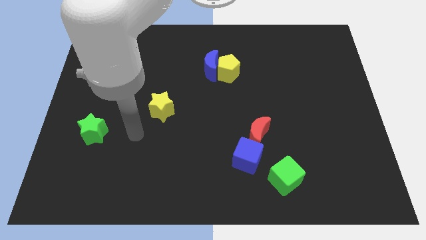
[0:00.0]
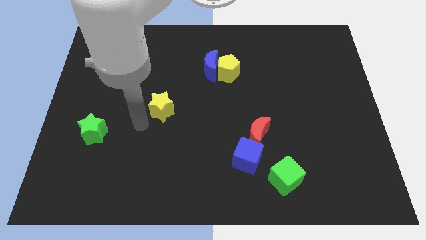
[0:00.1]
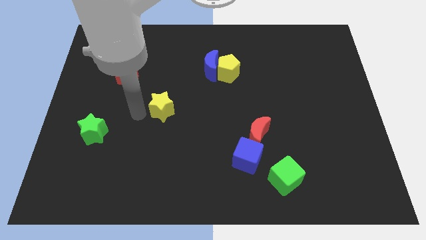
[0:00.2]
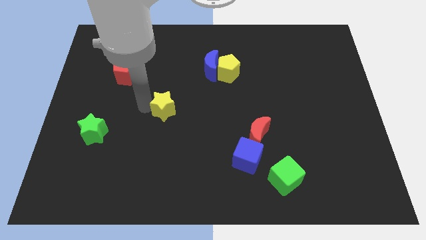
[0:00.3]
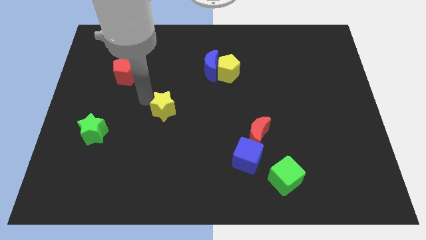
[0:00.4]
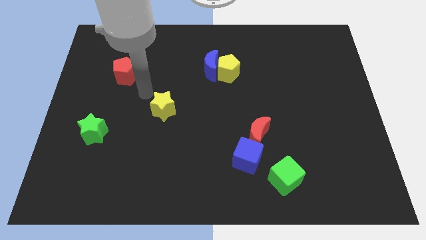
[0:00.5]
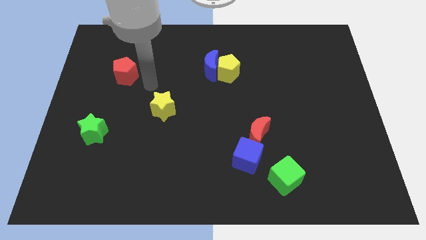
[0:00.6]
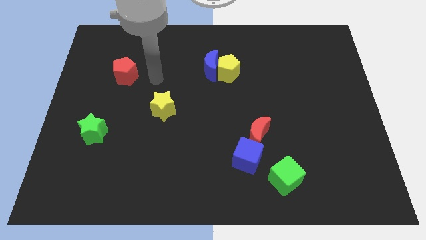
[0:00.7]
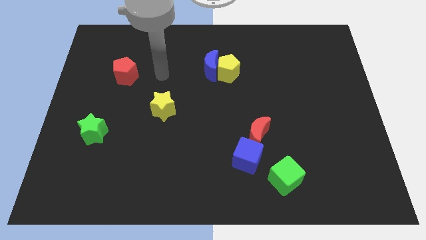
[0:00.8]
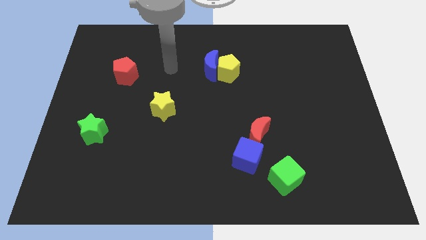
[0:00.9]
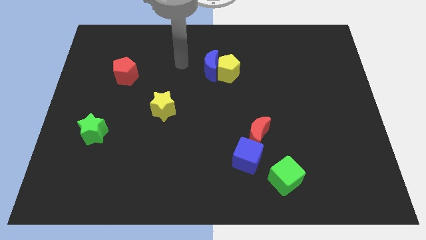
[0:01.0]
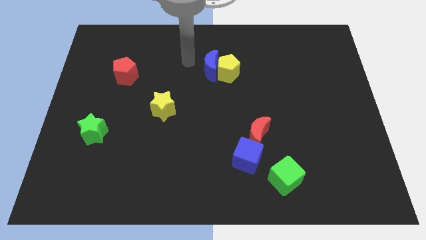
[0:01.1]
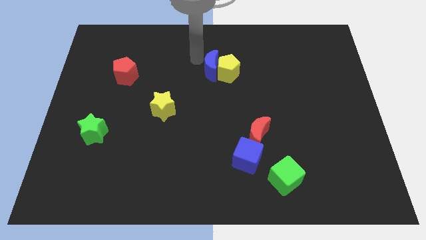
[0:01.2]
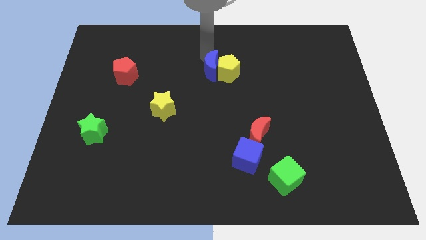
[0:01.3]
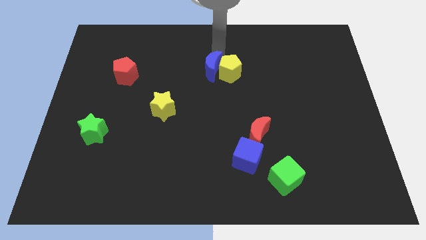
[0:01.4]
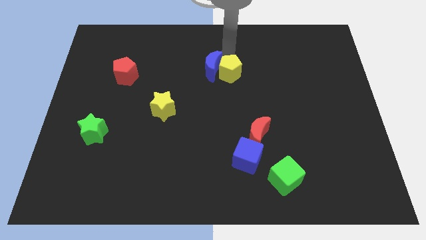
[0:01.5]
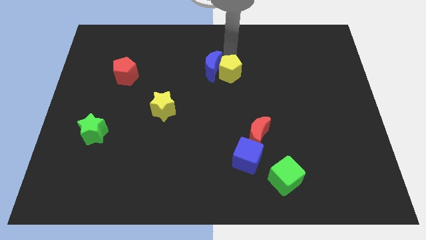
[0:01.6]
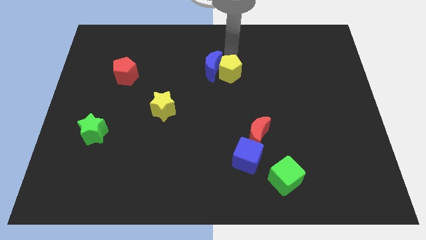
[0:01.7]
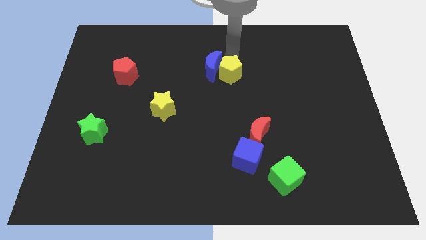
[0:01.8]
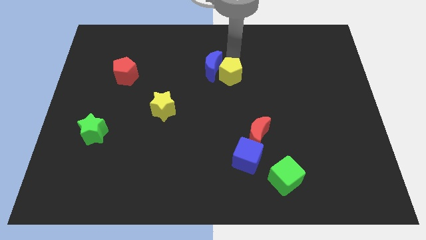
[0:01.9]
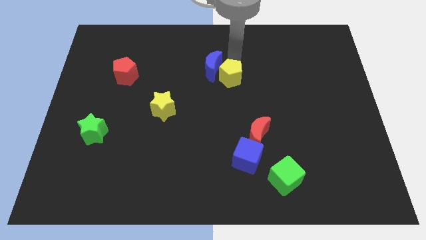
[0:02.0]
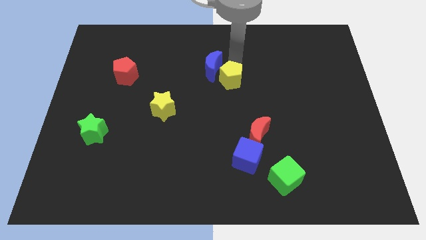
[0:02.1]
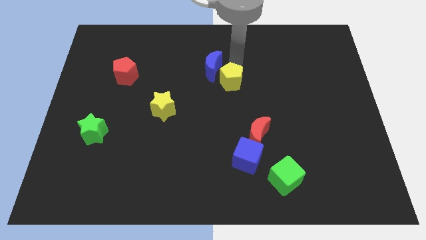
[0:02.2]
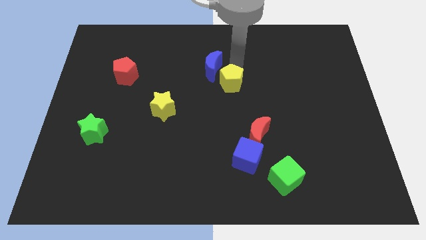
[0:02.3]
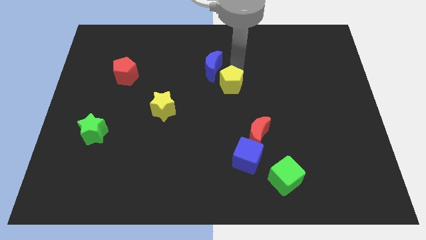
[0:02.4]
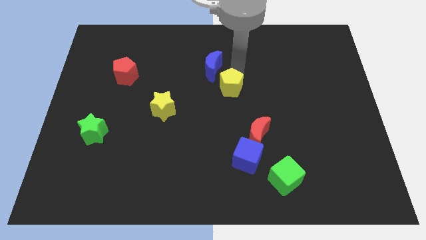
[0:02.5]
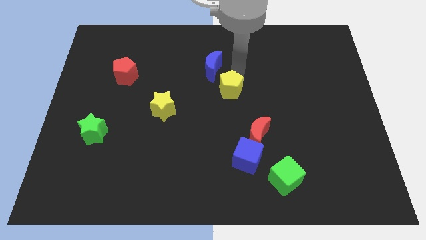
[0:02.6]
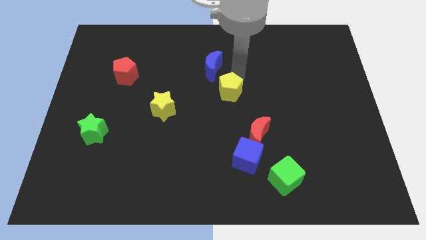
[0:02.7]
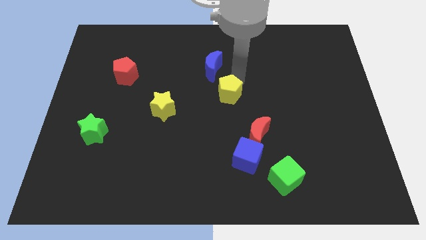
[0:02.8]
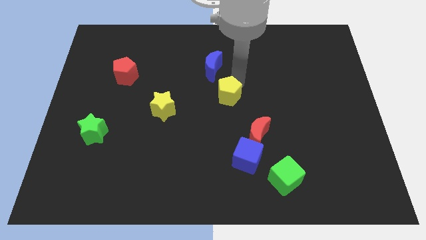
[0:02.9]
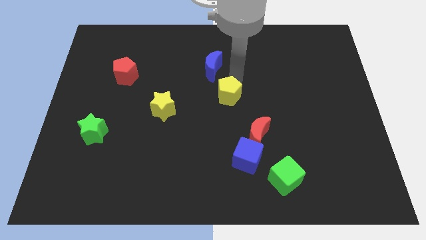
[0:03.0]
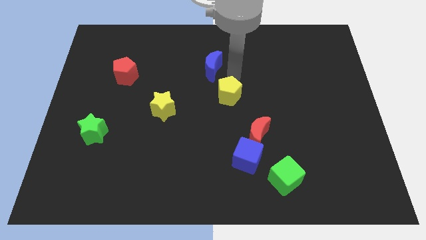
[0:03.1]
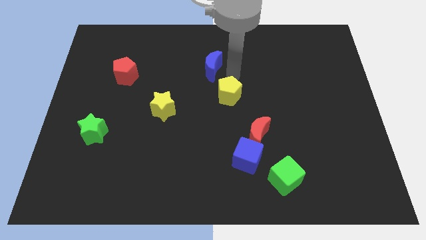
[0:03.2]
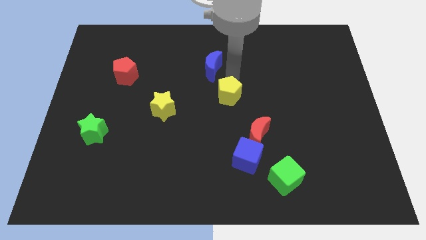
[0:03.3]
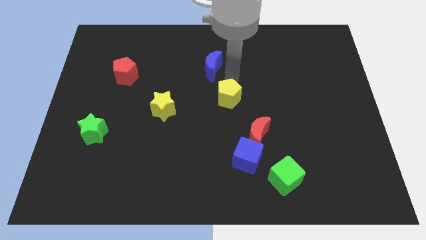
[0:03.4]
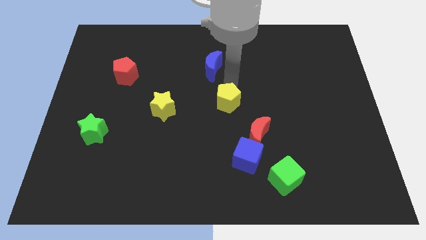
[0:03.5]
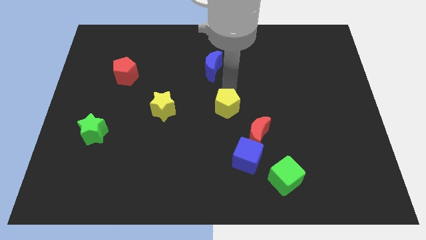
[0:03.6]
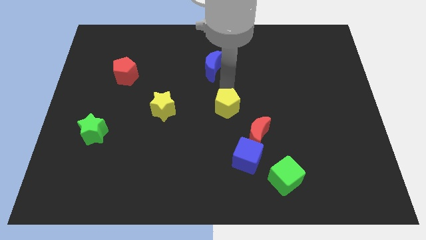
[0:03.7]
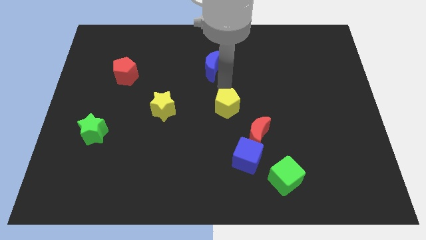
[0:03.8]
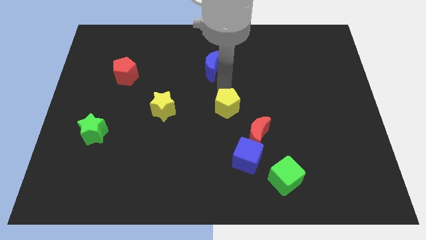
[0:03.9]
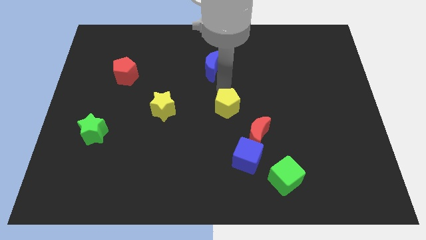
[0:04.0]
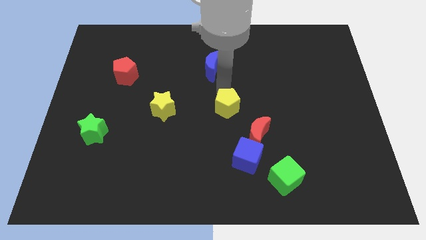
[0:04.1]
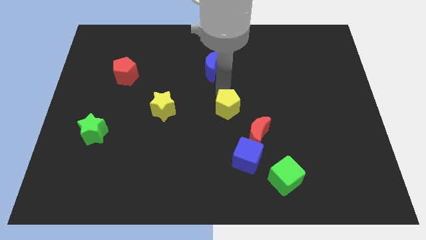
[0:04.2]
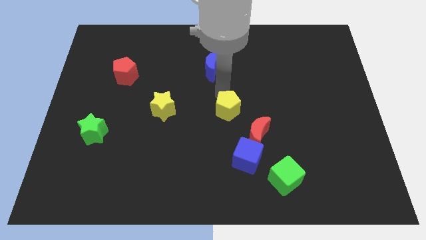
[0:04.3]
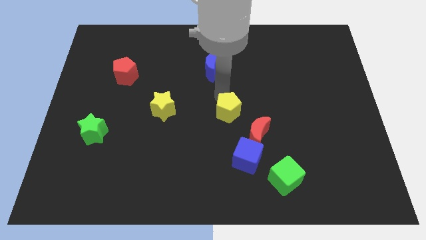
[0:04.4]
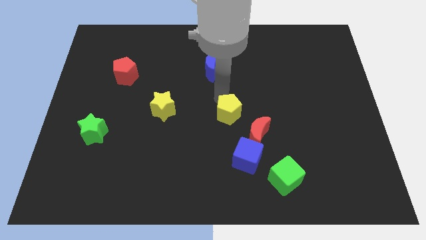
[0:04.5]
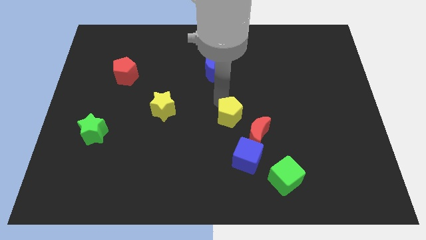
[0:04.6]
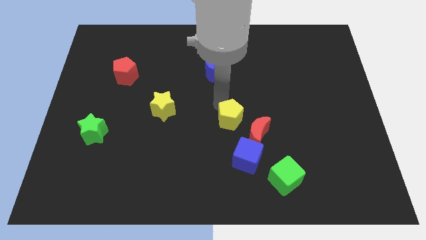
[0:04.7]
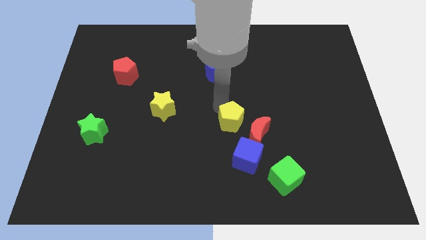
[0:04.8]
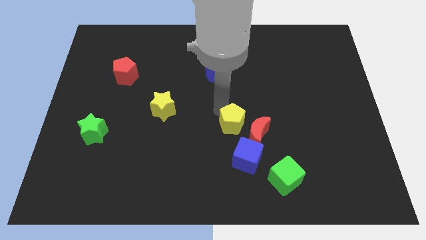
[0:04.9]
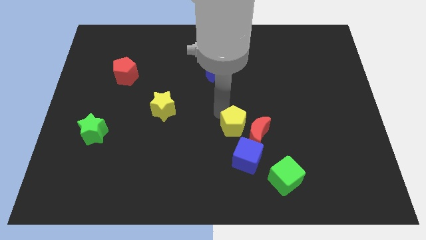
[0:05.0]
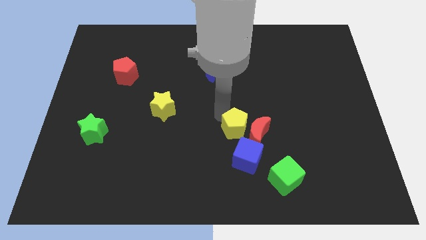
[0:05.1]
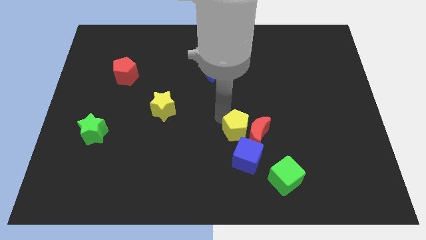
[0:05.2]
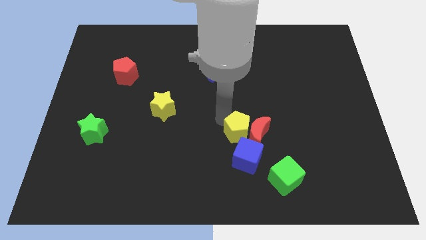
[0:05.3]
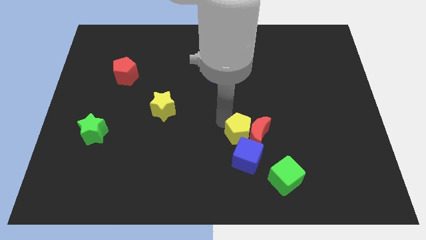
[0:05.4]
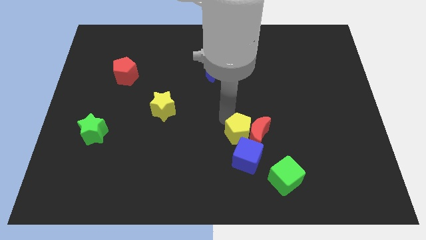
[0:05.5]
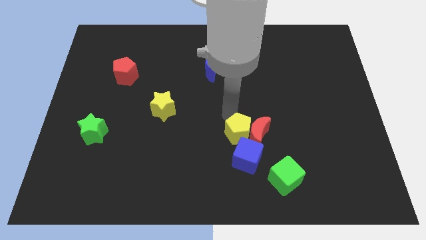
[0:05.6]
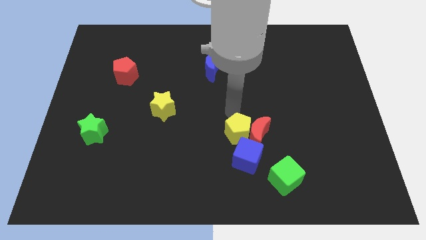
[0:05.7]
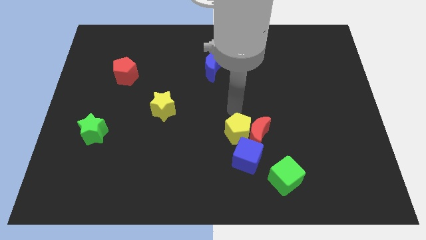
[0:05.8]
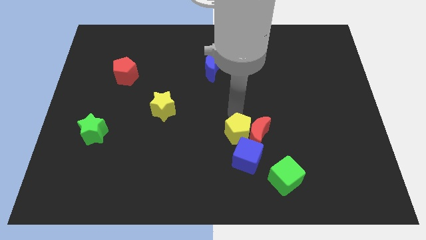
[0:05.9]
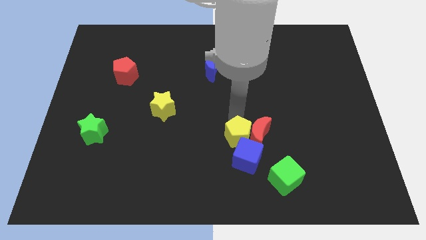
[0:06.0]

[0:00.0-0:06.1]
move the yellow pentagon next to the blue cube

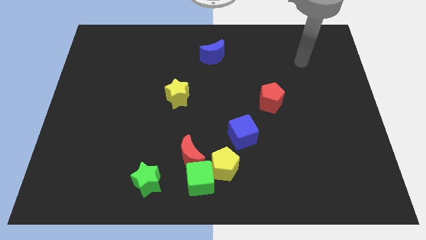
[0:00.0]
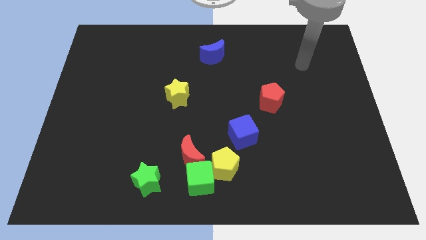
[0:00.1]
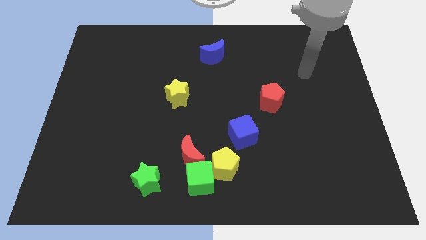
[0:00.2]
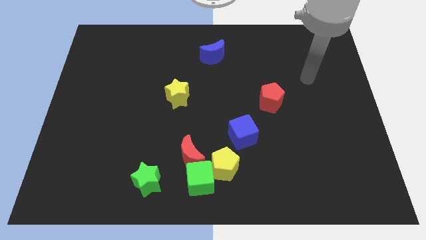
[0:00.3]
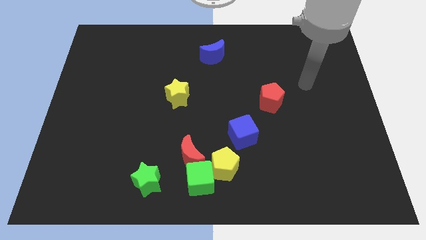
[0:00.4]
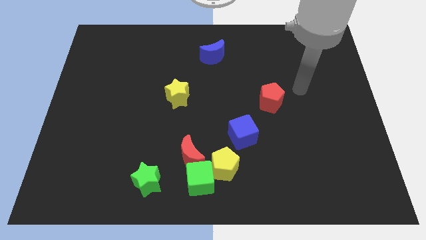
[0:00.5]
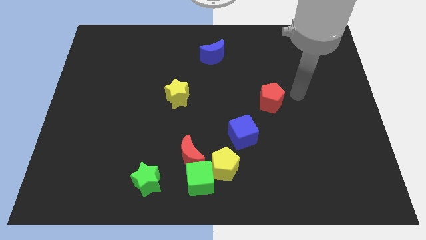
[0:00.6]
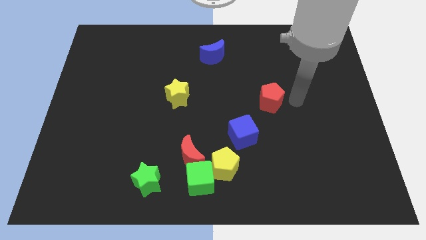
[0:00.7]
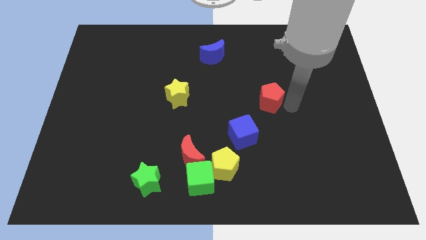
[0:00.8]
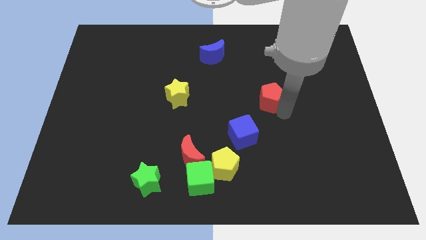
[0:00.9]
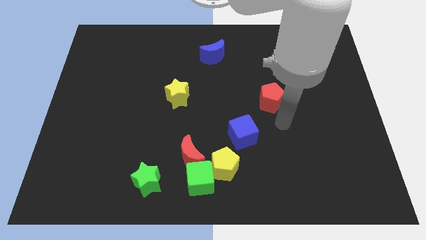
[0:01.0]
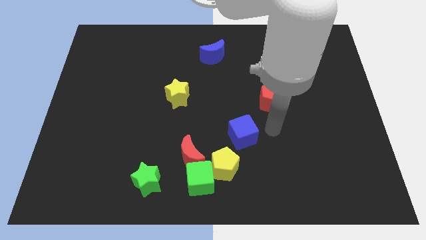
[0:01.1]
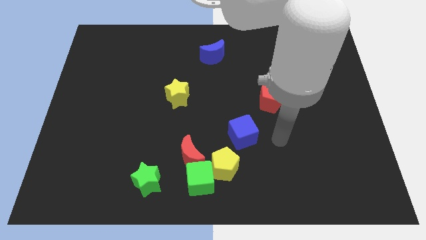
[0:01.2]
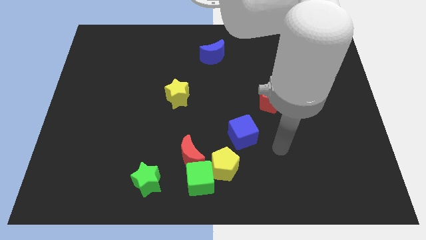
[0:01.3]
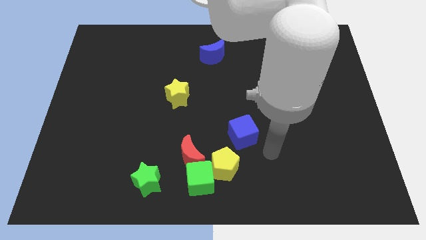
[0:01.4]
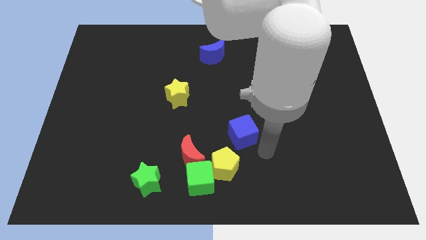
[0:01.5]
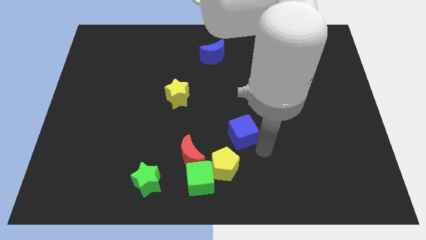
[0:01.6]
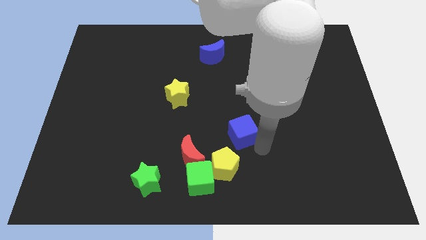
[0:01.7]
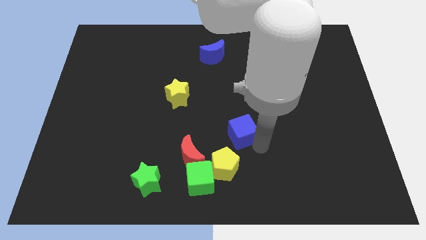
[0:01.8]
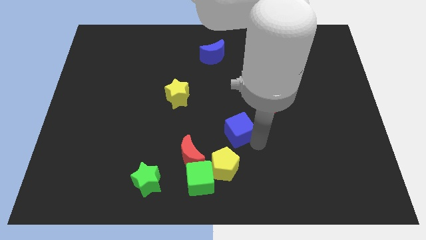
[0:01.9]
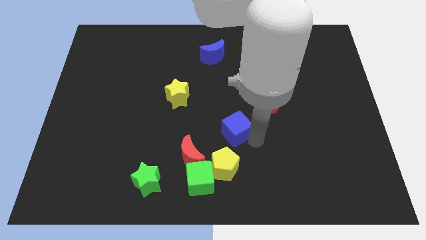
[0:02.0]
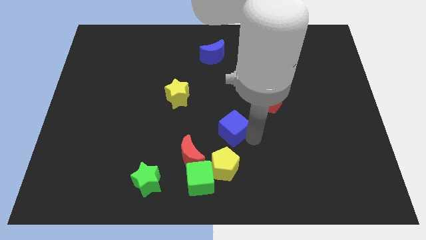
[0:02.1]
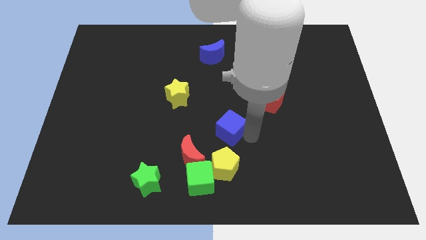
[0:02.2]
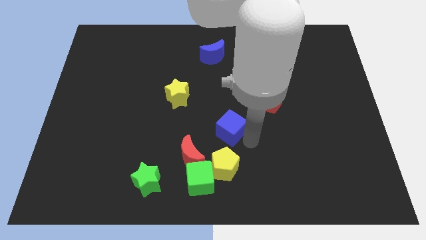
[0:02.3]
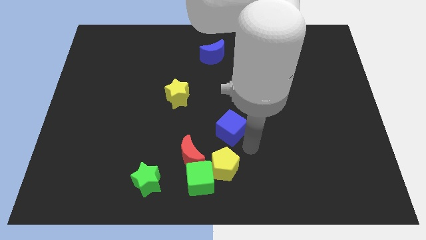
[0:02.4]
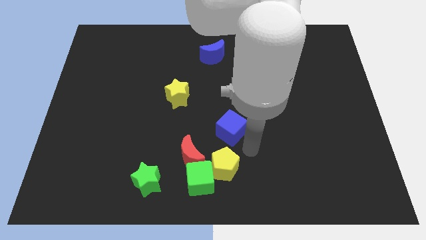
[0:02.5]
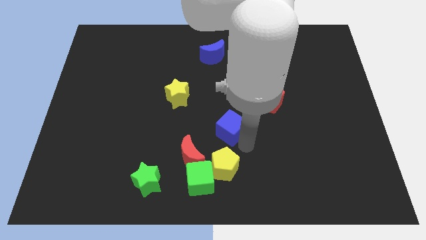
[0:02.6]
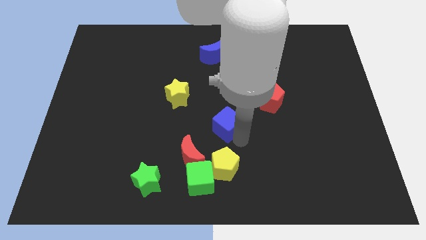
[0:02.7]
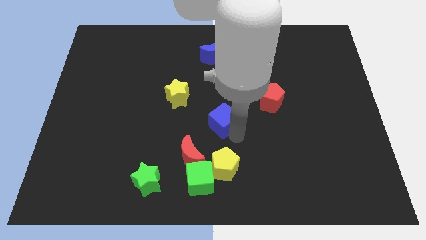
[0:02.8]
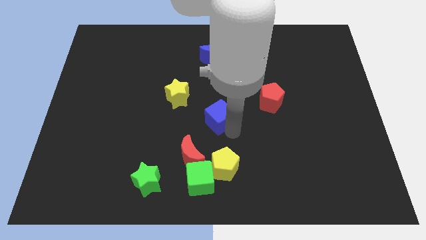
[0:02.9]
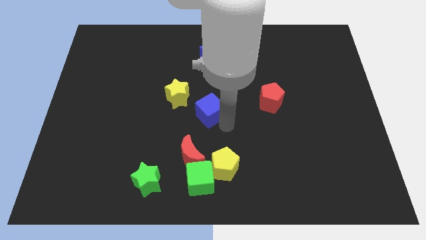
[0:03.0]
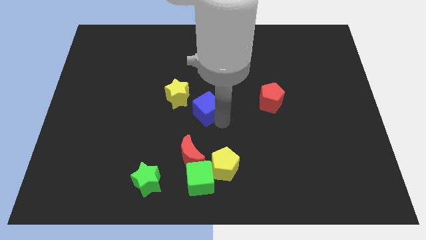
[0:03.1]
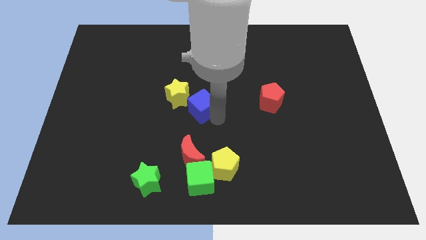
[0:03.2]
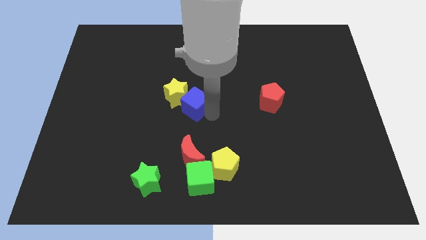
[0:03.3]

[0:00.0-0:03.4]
slide the blue cube close to the yellow star
